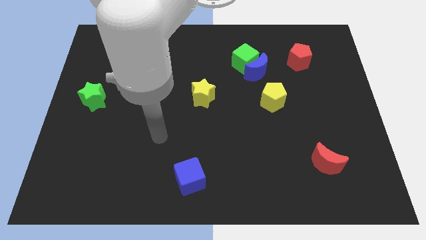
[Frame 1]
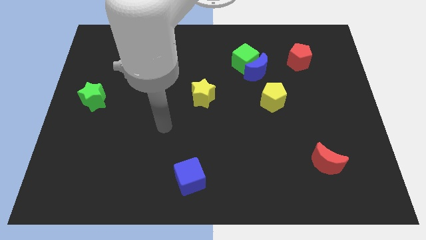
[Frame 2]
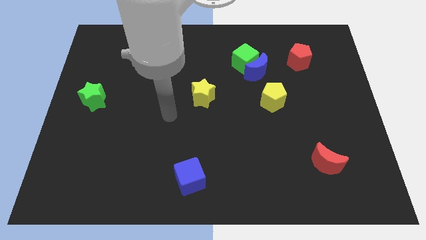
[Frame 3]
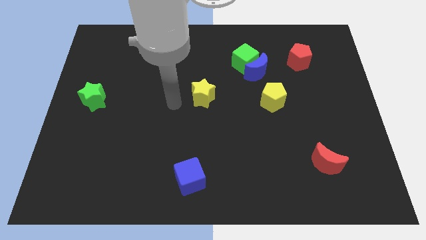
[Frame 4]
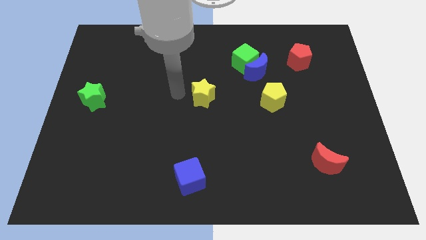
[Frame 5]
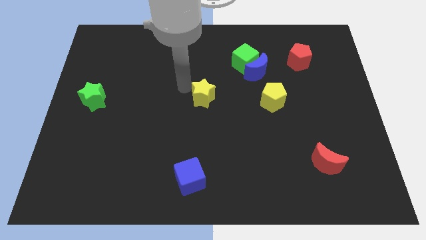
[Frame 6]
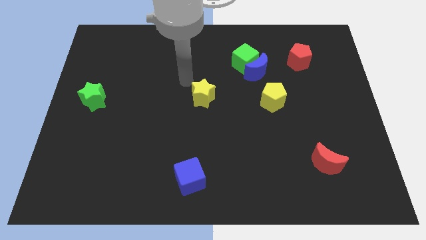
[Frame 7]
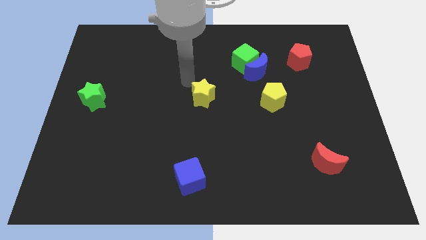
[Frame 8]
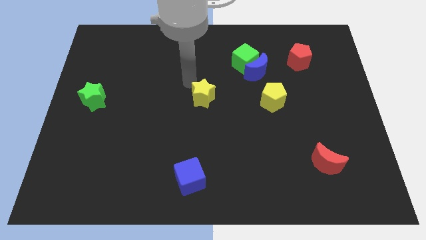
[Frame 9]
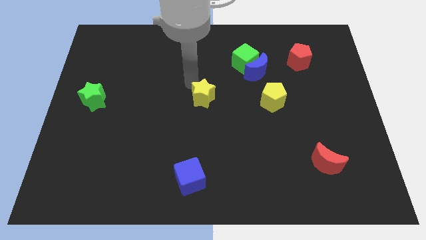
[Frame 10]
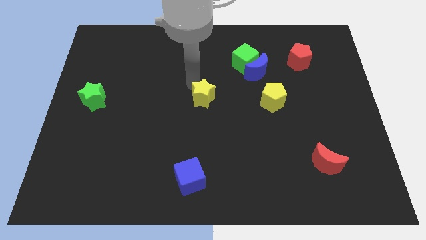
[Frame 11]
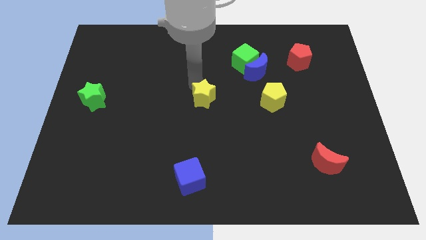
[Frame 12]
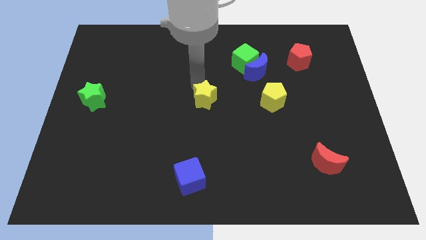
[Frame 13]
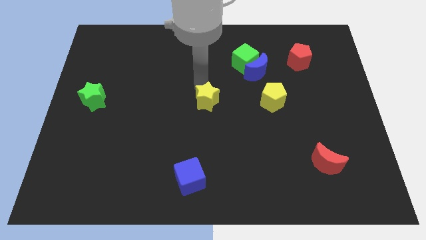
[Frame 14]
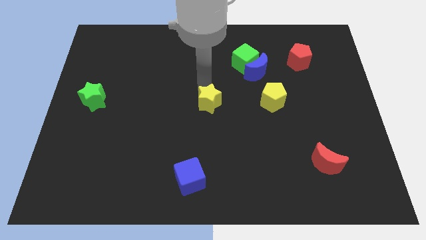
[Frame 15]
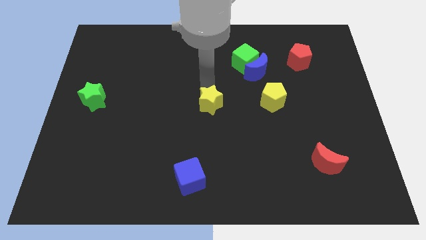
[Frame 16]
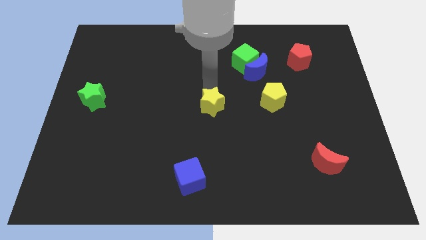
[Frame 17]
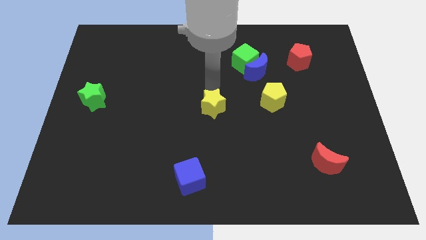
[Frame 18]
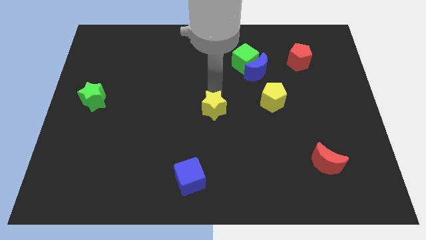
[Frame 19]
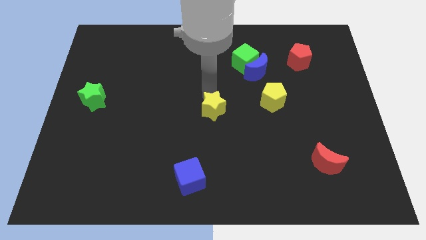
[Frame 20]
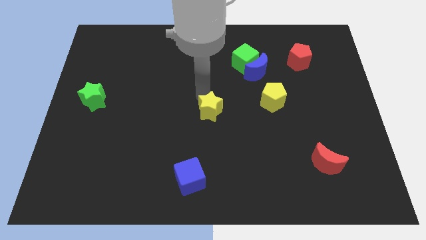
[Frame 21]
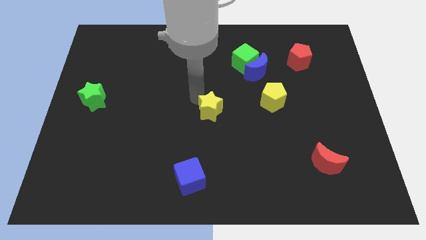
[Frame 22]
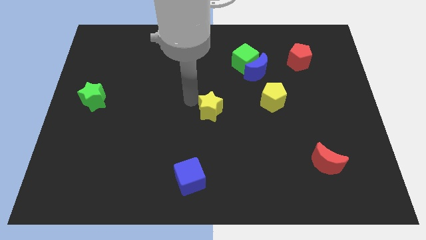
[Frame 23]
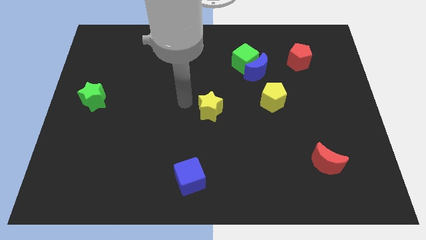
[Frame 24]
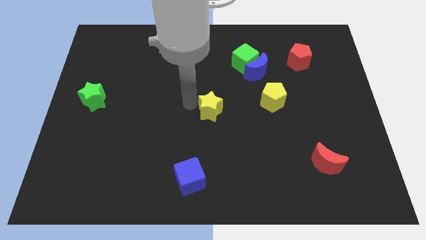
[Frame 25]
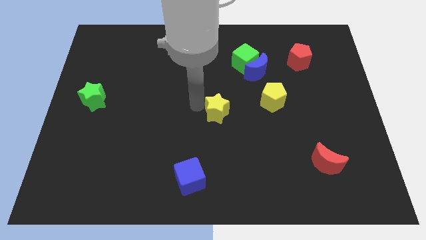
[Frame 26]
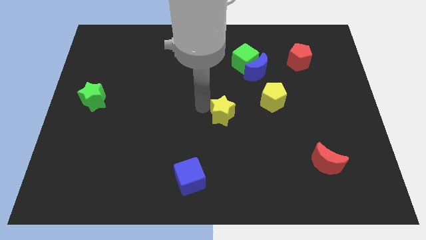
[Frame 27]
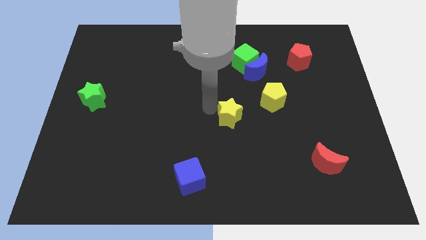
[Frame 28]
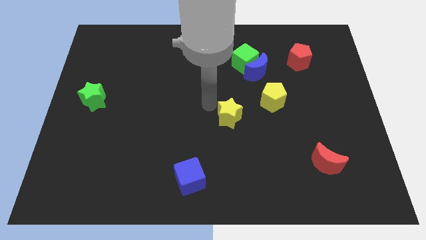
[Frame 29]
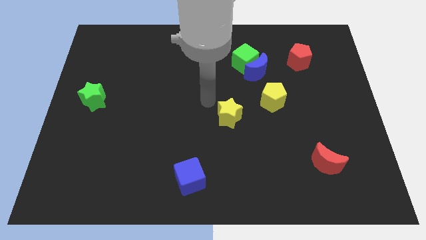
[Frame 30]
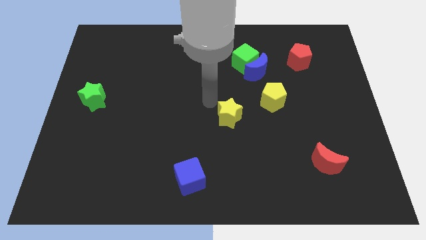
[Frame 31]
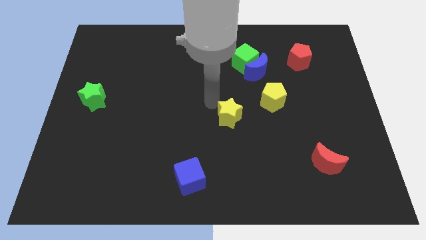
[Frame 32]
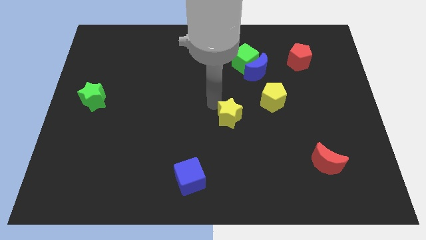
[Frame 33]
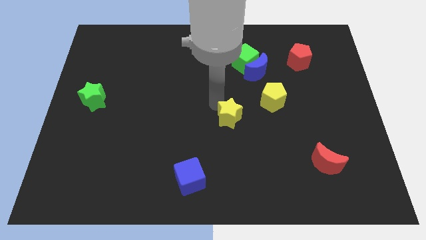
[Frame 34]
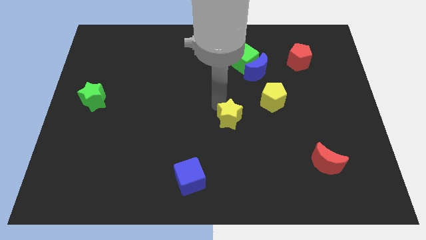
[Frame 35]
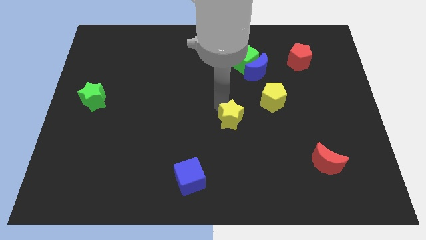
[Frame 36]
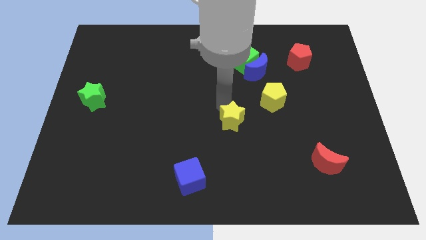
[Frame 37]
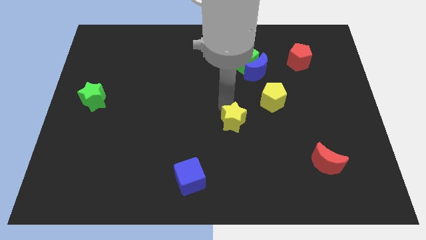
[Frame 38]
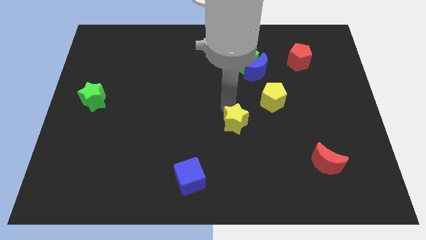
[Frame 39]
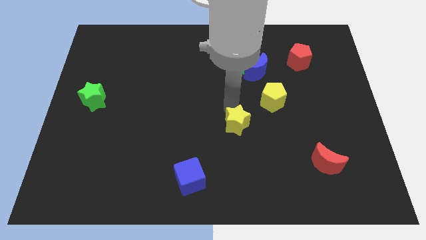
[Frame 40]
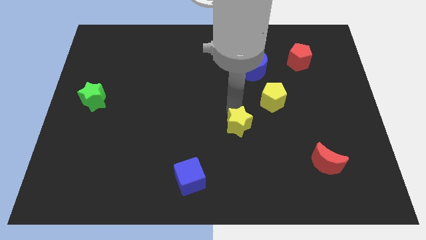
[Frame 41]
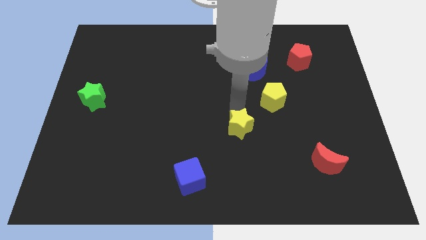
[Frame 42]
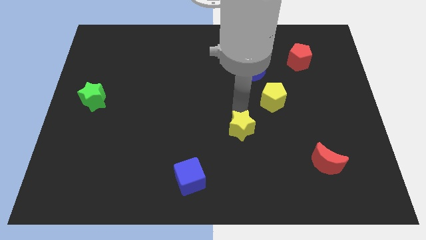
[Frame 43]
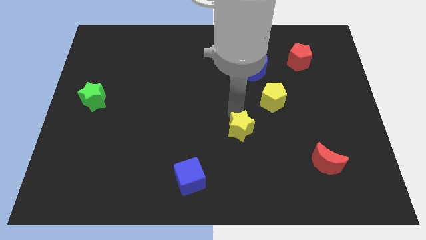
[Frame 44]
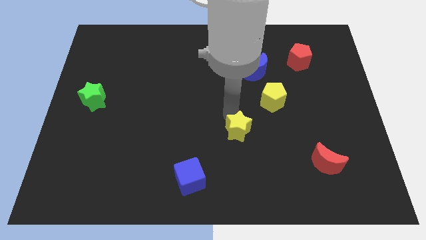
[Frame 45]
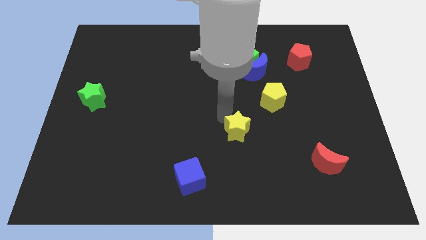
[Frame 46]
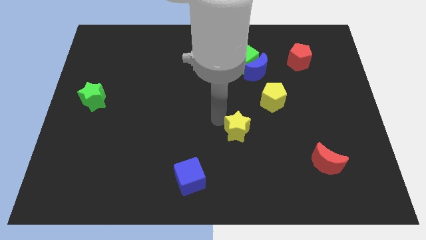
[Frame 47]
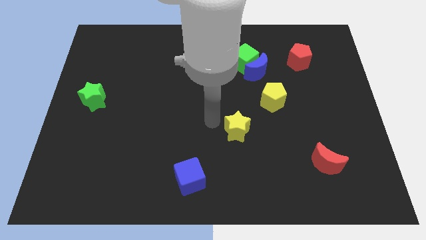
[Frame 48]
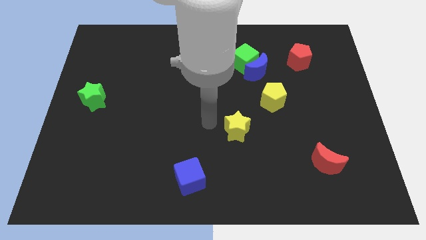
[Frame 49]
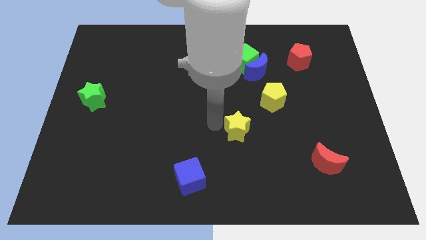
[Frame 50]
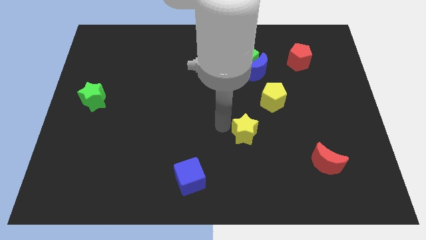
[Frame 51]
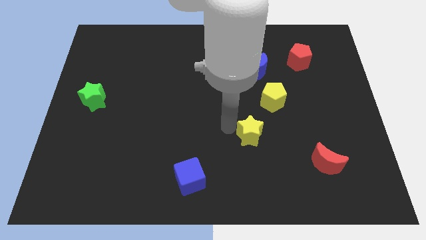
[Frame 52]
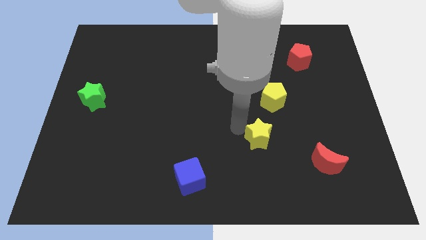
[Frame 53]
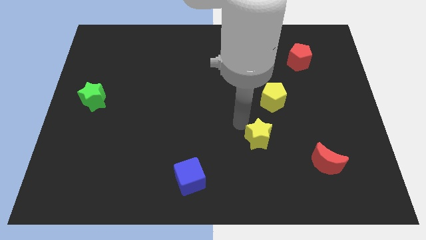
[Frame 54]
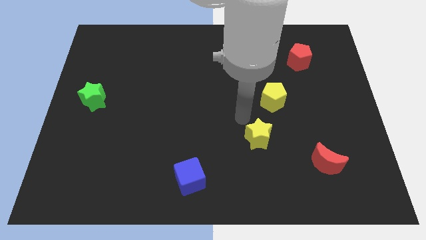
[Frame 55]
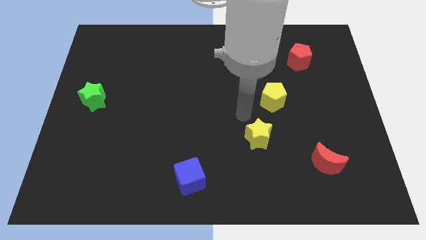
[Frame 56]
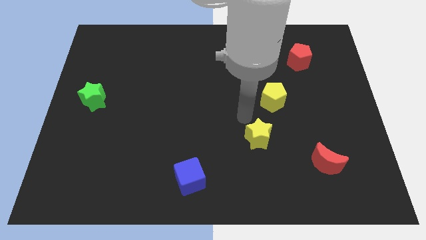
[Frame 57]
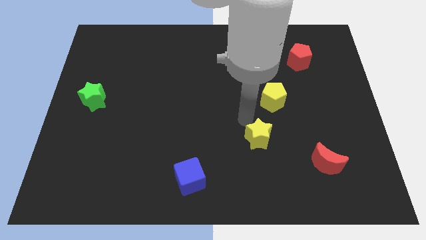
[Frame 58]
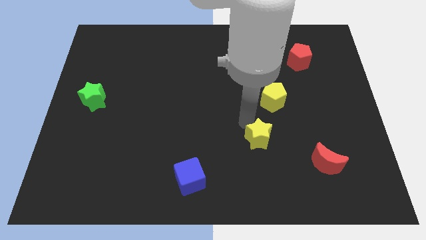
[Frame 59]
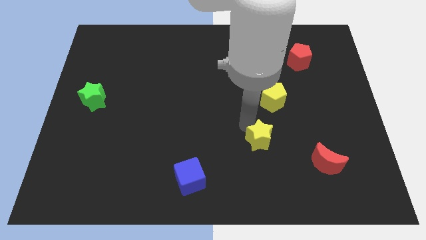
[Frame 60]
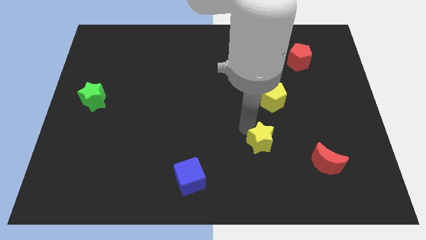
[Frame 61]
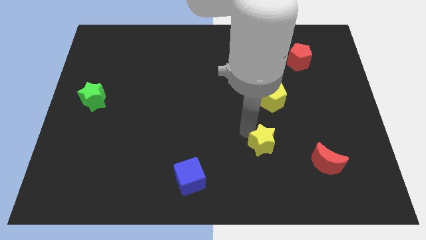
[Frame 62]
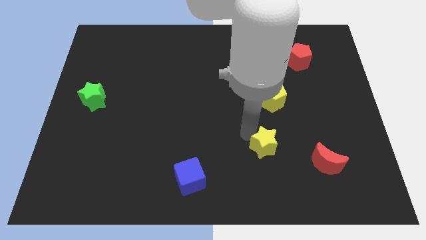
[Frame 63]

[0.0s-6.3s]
push the yellow star to the left side of the red moon

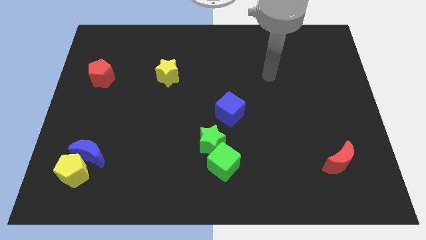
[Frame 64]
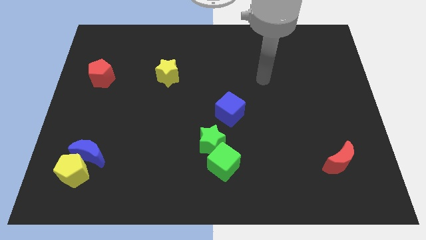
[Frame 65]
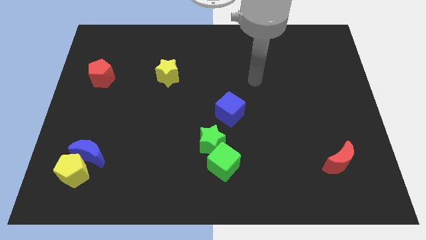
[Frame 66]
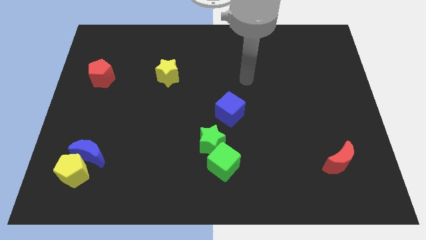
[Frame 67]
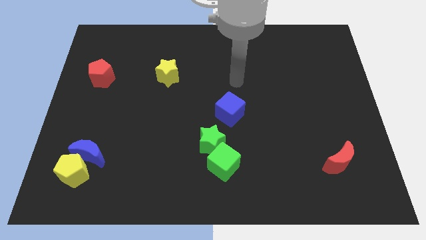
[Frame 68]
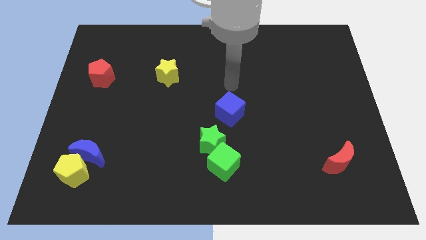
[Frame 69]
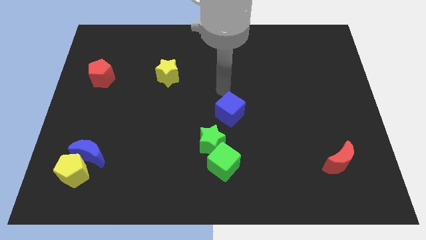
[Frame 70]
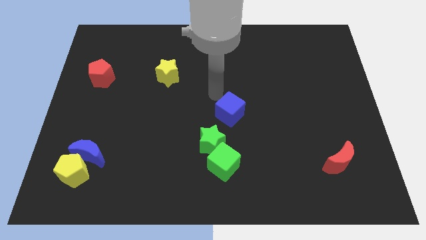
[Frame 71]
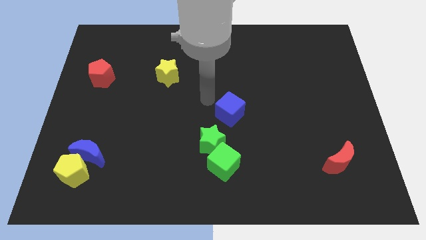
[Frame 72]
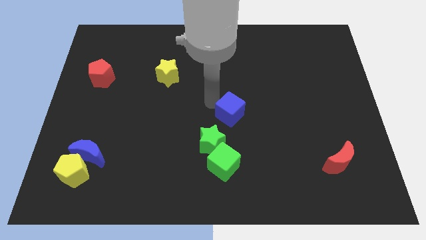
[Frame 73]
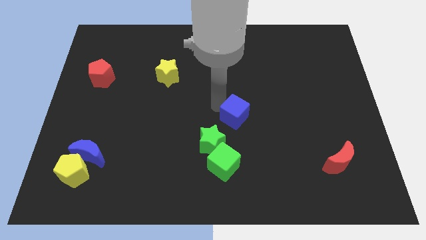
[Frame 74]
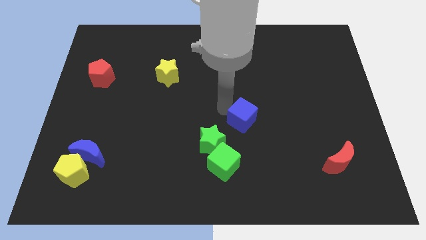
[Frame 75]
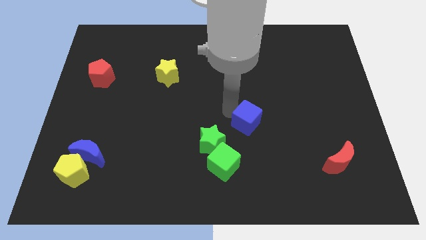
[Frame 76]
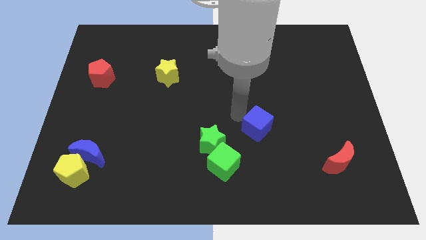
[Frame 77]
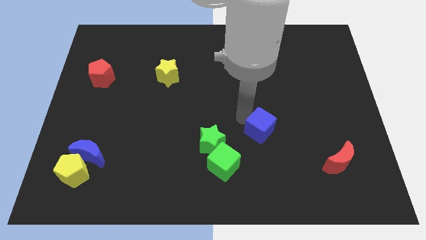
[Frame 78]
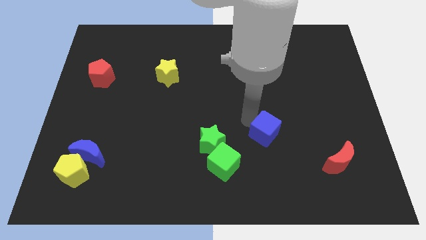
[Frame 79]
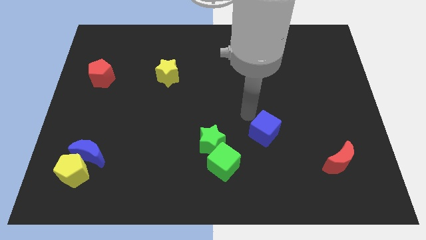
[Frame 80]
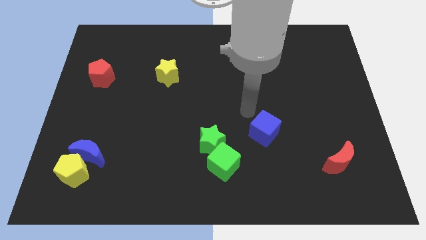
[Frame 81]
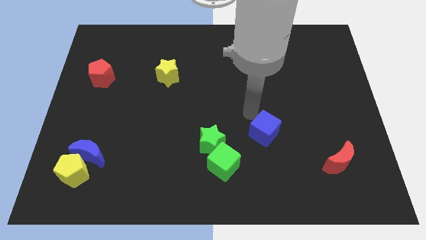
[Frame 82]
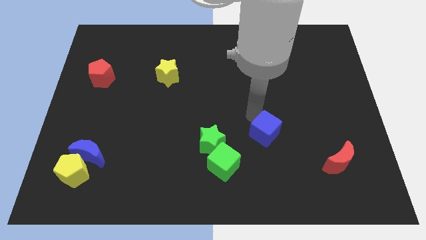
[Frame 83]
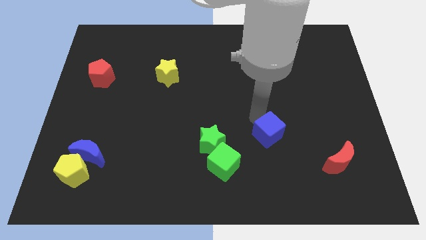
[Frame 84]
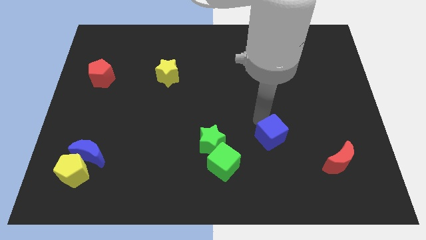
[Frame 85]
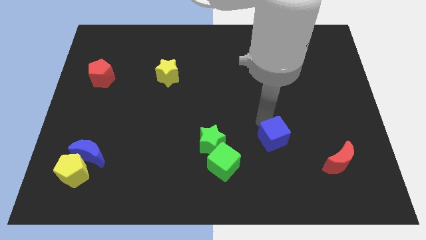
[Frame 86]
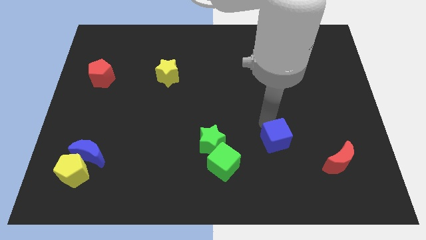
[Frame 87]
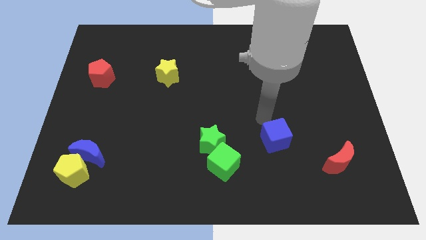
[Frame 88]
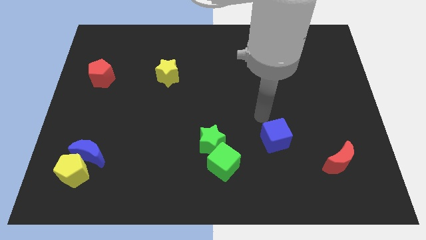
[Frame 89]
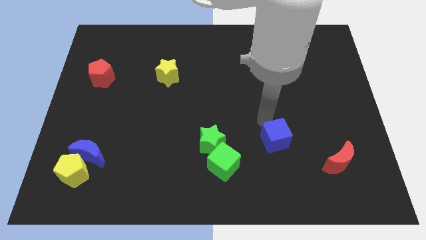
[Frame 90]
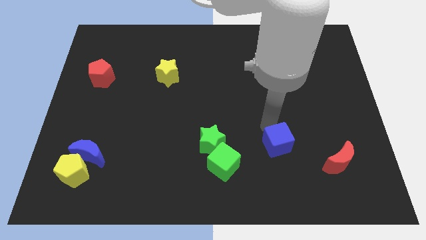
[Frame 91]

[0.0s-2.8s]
put the blue cube to the left of the red moon
